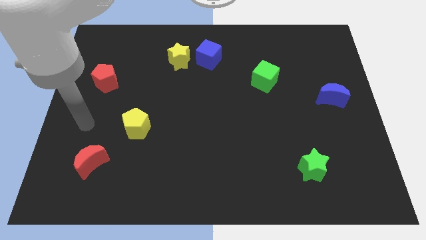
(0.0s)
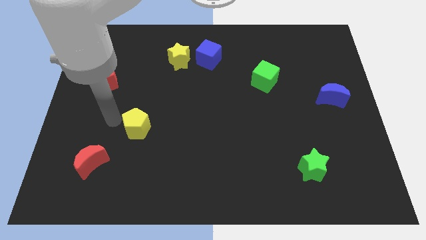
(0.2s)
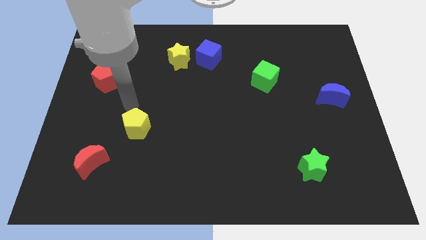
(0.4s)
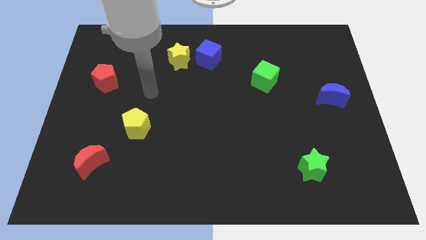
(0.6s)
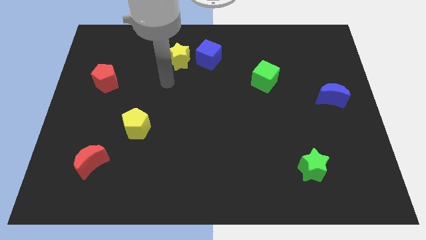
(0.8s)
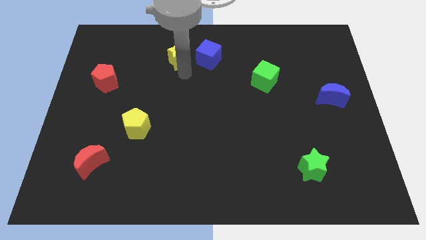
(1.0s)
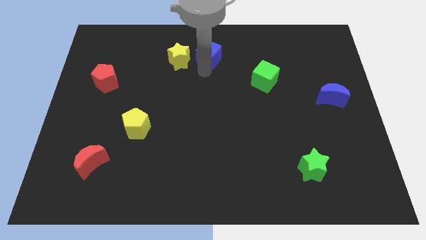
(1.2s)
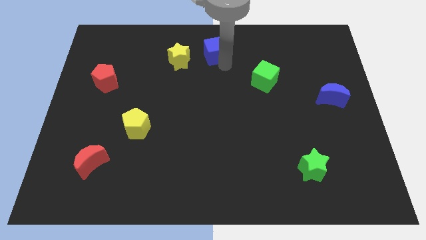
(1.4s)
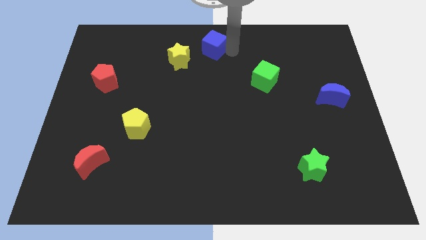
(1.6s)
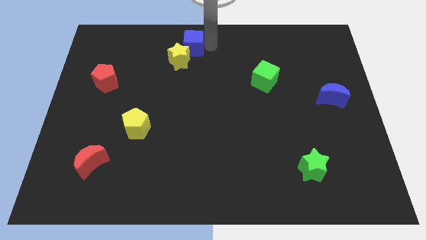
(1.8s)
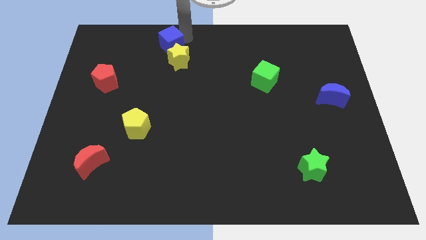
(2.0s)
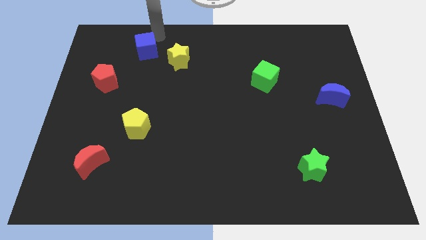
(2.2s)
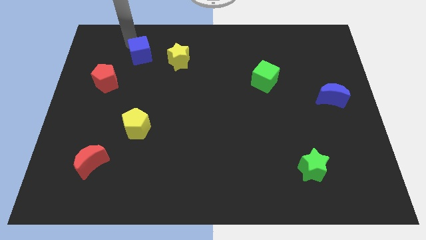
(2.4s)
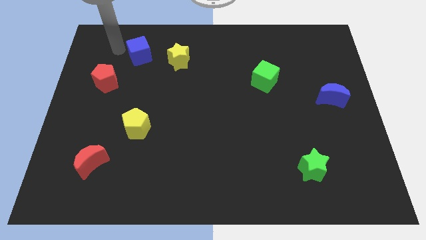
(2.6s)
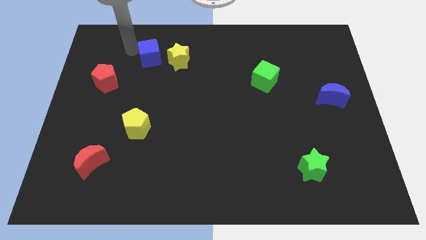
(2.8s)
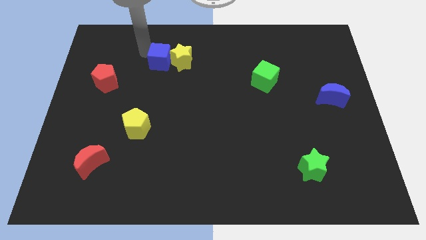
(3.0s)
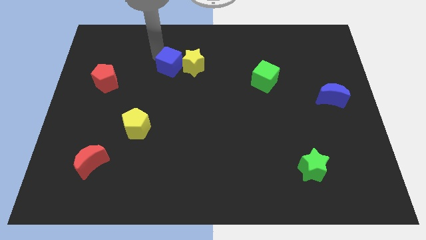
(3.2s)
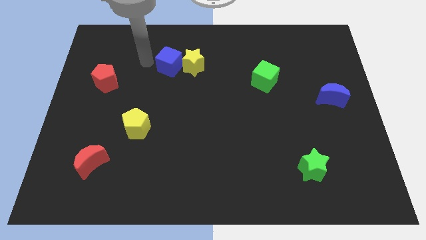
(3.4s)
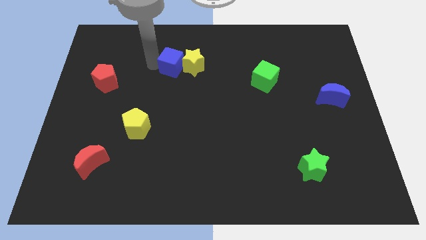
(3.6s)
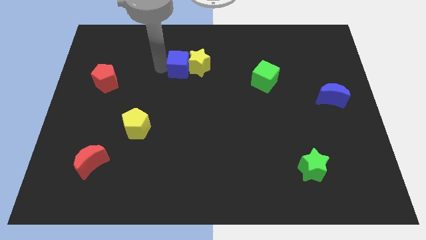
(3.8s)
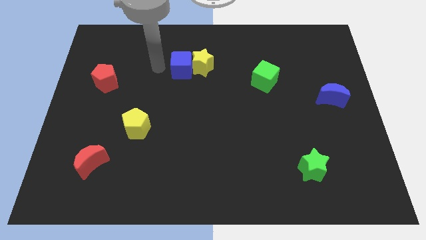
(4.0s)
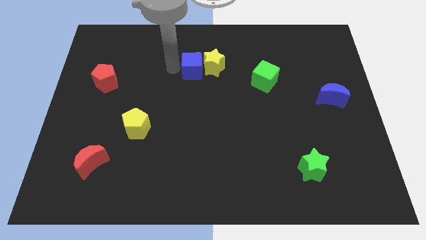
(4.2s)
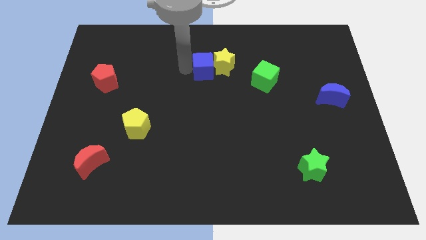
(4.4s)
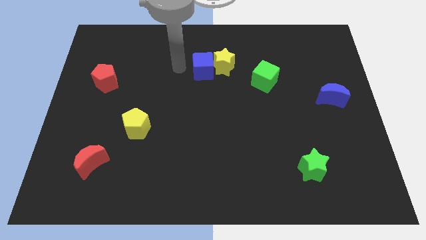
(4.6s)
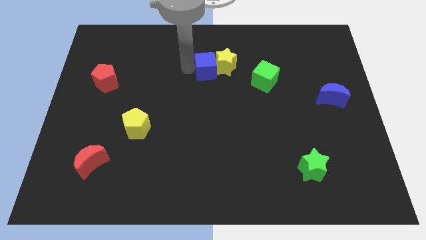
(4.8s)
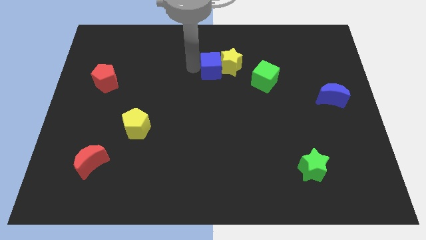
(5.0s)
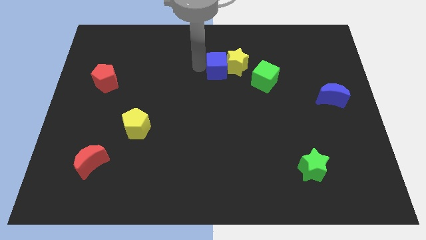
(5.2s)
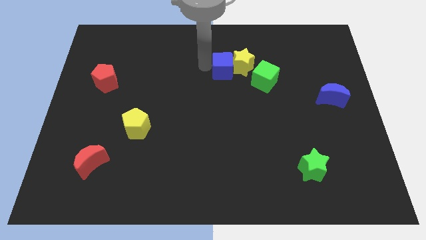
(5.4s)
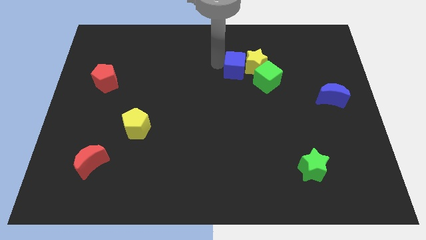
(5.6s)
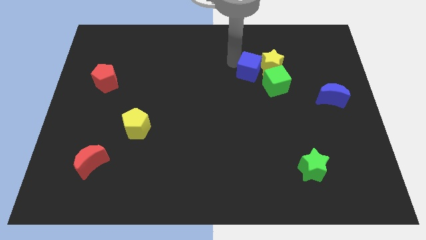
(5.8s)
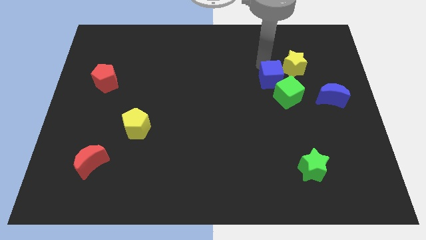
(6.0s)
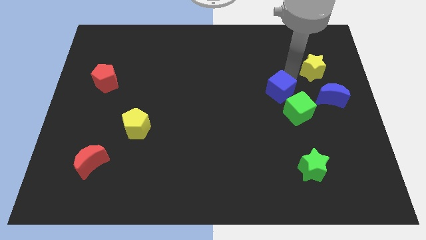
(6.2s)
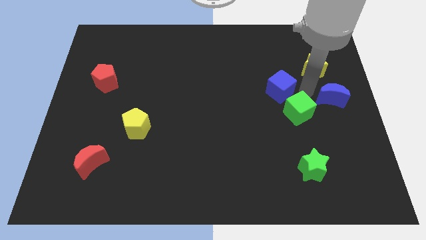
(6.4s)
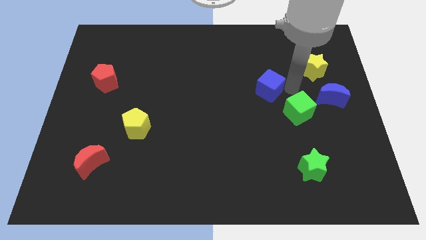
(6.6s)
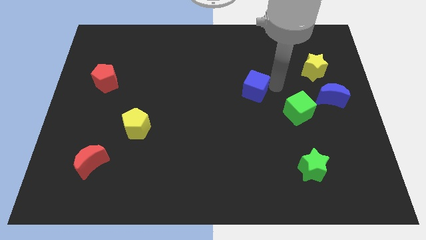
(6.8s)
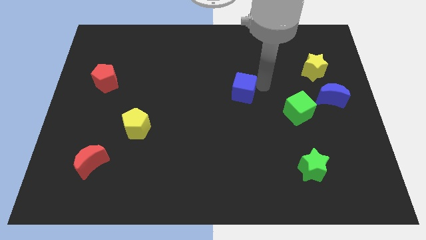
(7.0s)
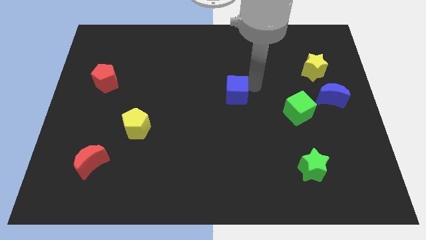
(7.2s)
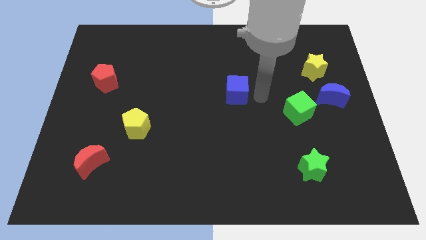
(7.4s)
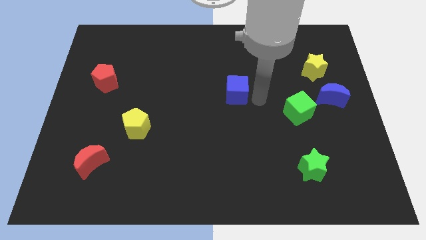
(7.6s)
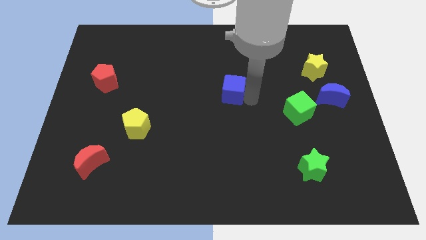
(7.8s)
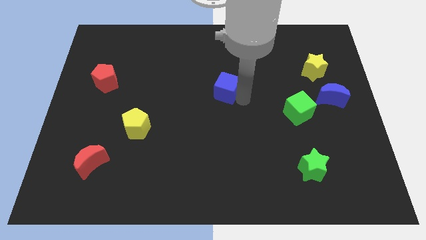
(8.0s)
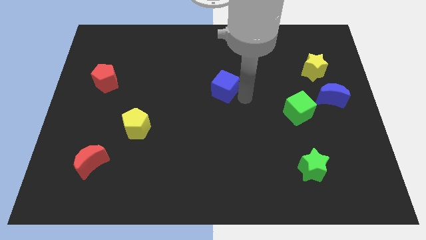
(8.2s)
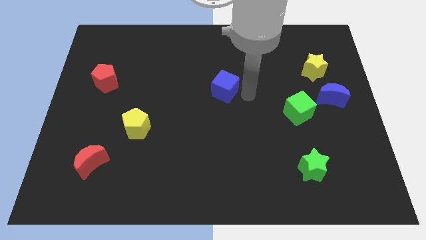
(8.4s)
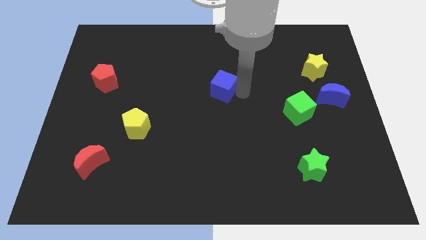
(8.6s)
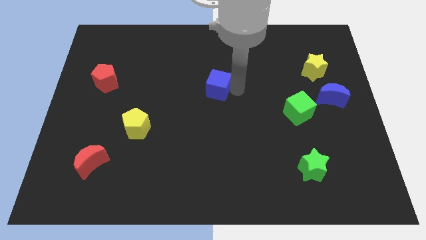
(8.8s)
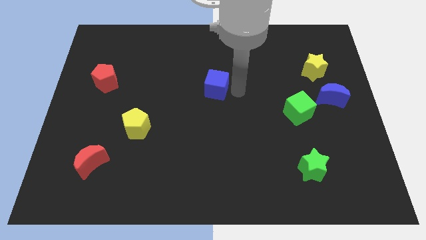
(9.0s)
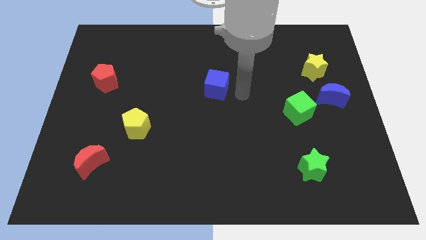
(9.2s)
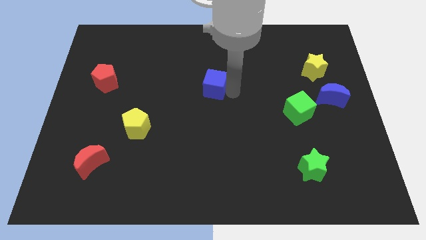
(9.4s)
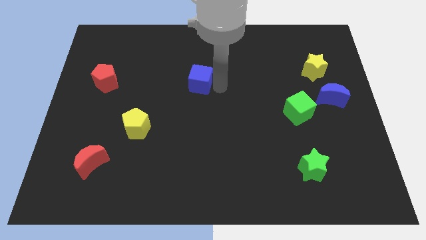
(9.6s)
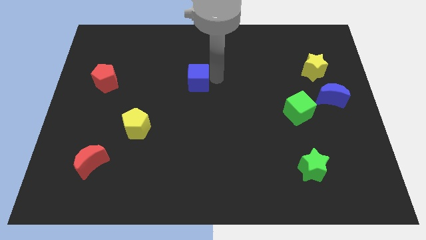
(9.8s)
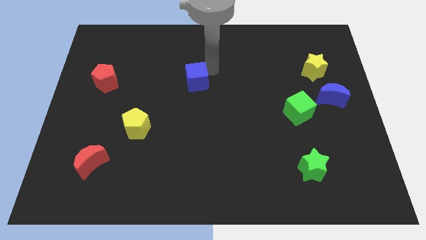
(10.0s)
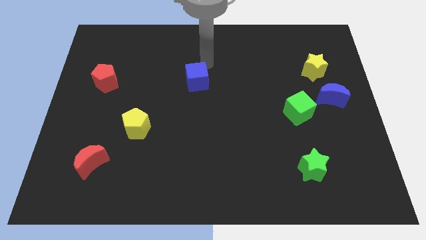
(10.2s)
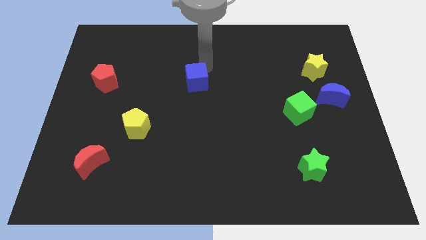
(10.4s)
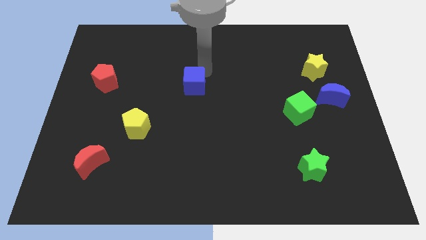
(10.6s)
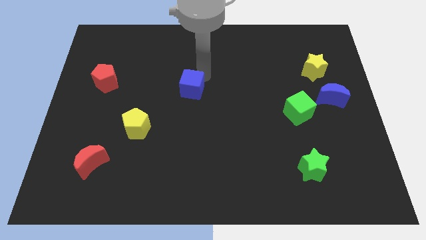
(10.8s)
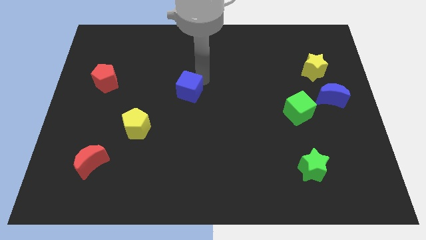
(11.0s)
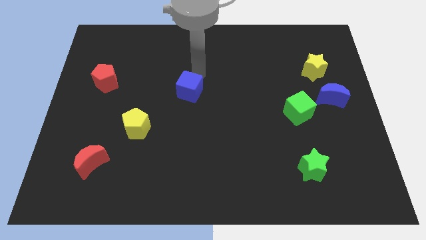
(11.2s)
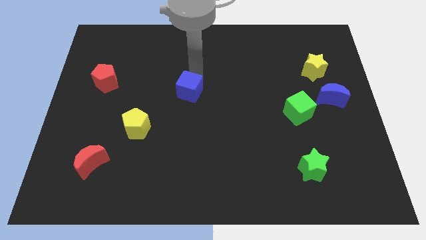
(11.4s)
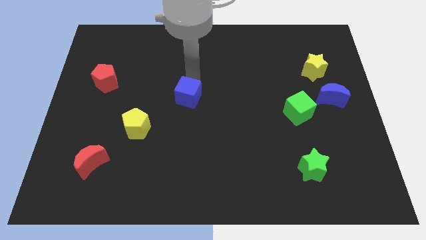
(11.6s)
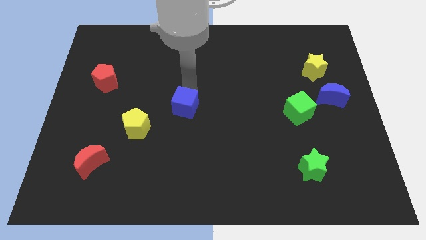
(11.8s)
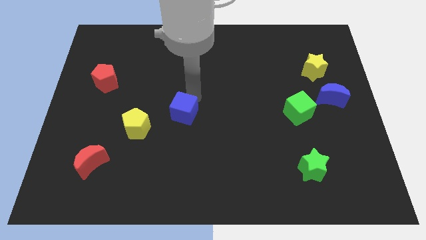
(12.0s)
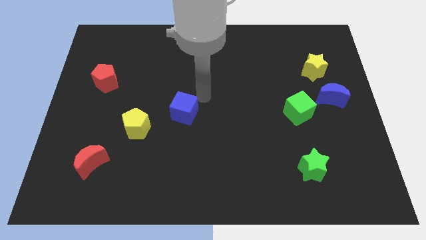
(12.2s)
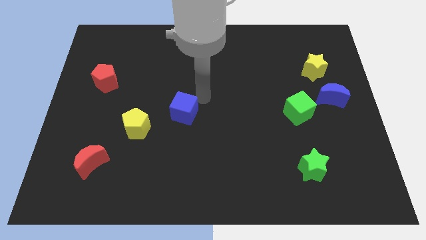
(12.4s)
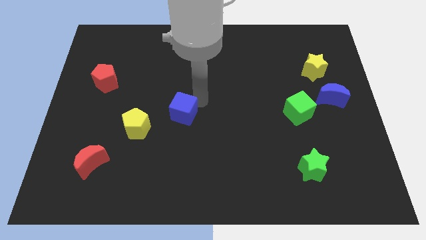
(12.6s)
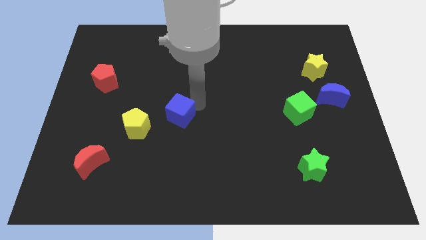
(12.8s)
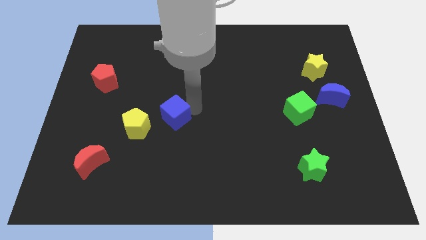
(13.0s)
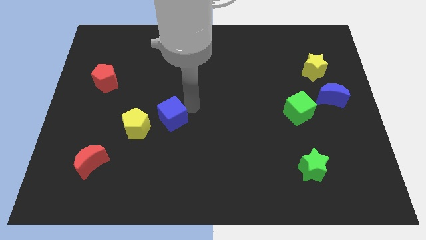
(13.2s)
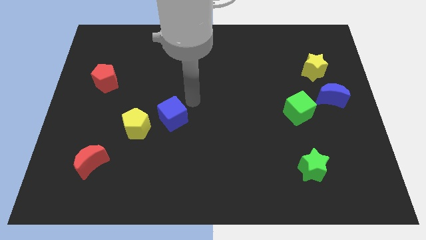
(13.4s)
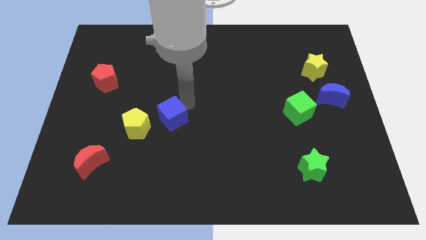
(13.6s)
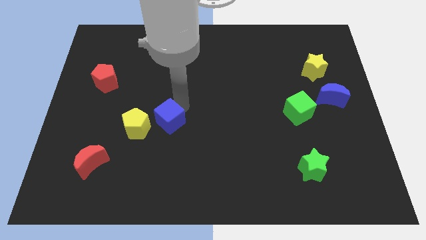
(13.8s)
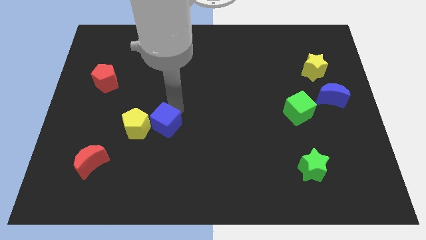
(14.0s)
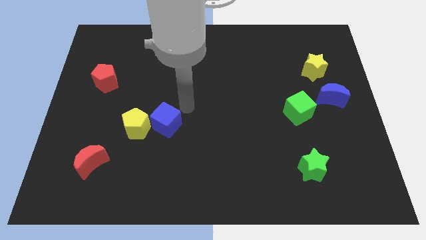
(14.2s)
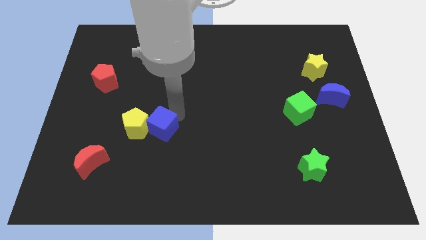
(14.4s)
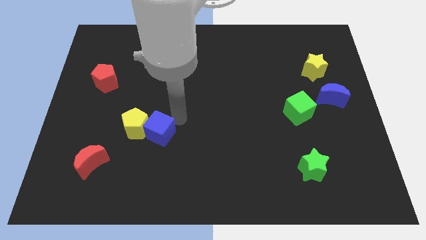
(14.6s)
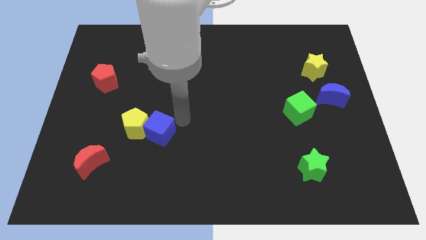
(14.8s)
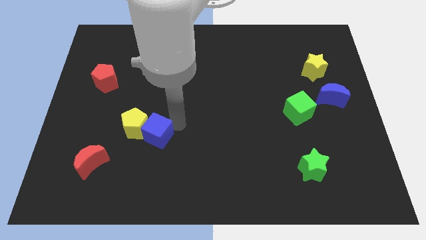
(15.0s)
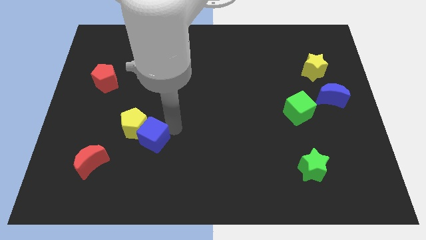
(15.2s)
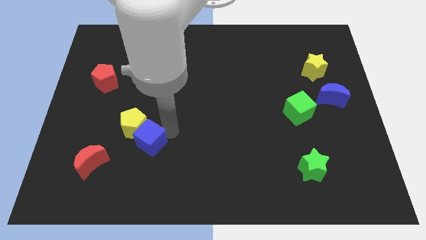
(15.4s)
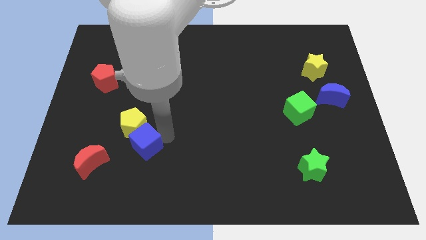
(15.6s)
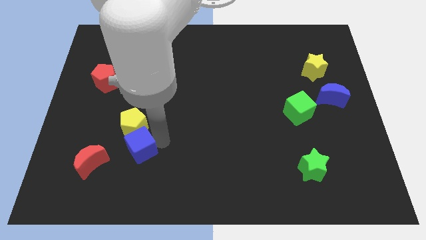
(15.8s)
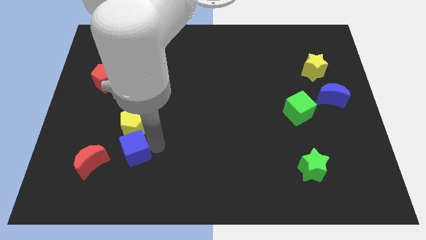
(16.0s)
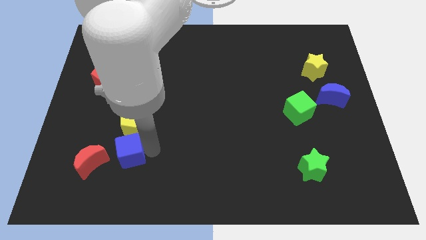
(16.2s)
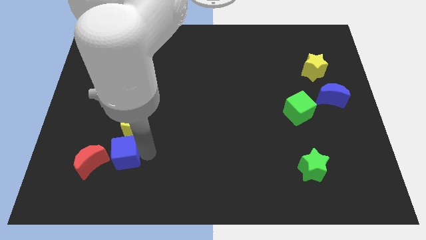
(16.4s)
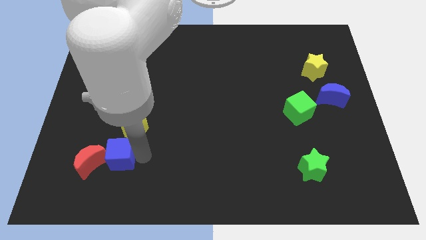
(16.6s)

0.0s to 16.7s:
slide the blue cube towards the red moon
